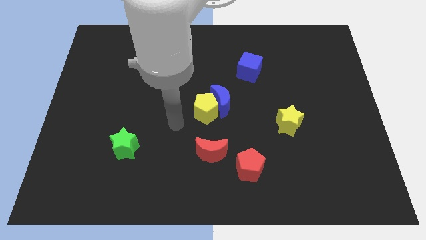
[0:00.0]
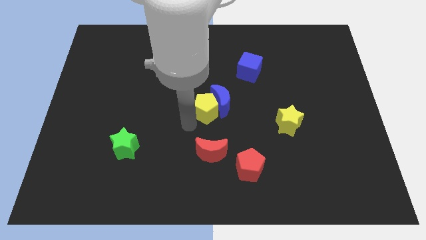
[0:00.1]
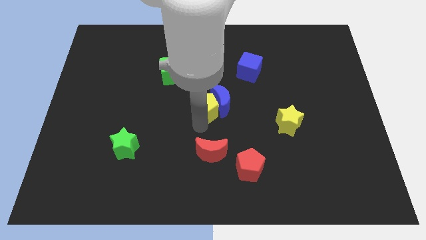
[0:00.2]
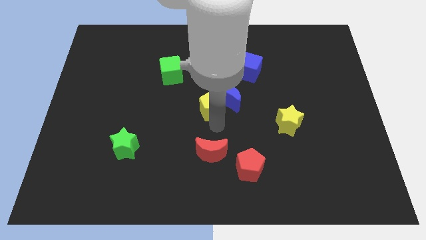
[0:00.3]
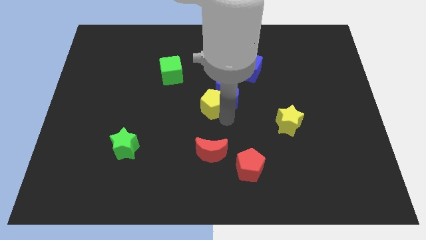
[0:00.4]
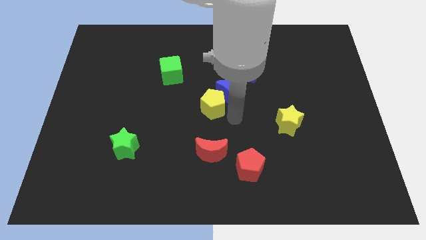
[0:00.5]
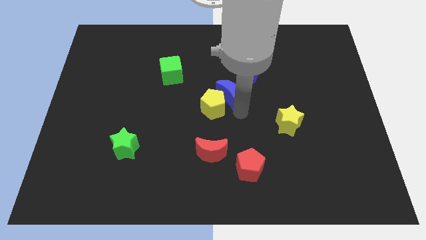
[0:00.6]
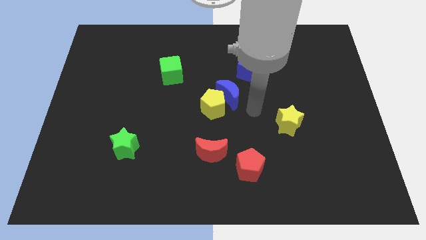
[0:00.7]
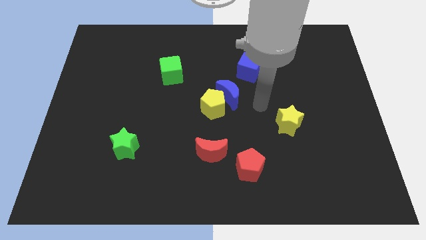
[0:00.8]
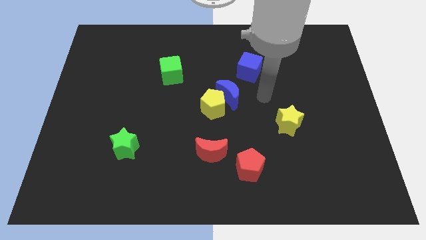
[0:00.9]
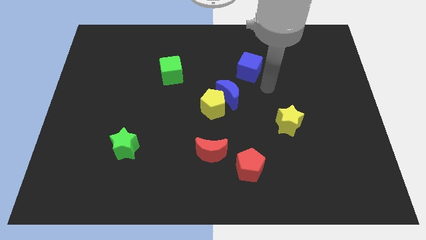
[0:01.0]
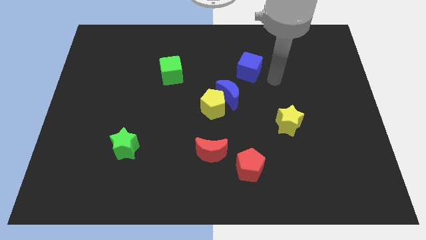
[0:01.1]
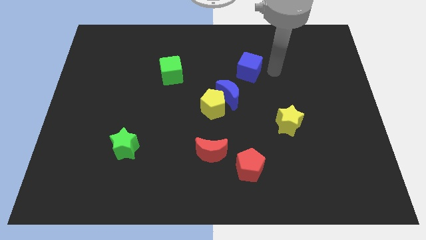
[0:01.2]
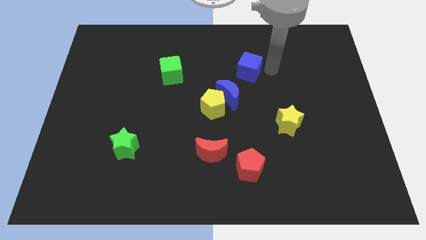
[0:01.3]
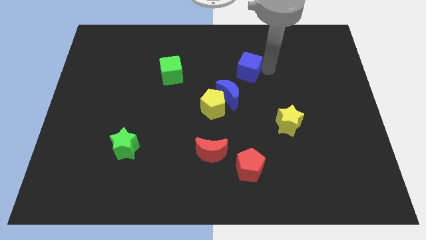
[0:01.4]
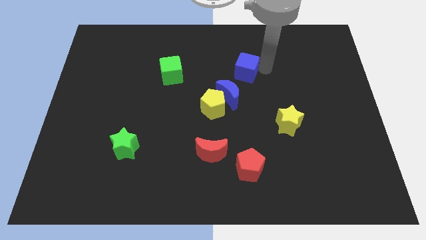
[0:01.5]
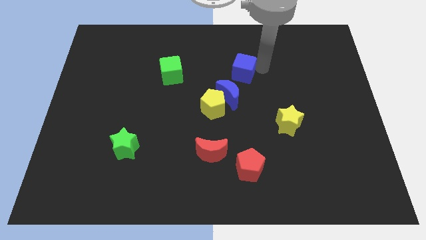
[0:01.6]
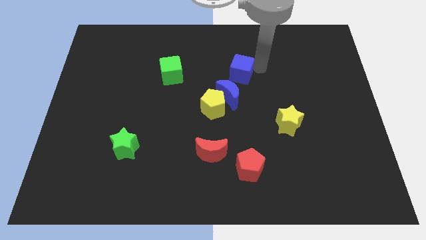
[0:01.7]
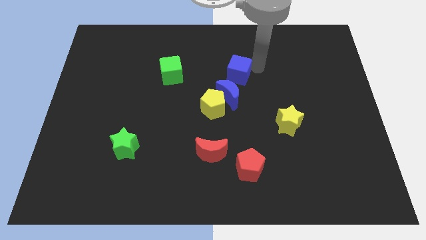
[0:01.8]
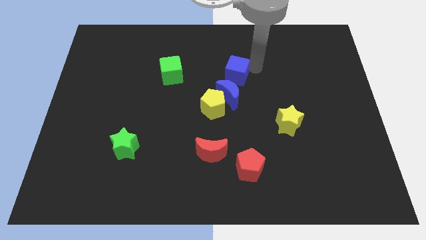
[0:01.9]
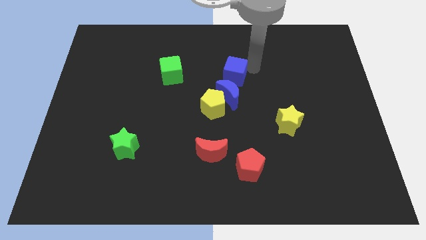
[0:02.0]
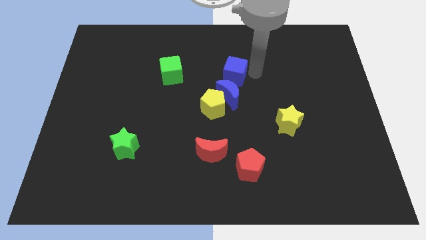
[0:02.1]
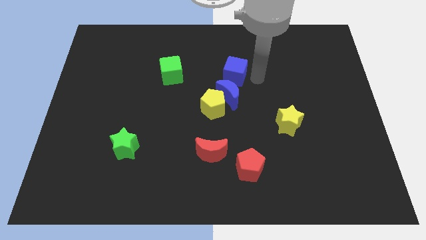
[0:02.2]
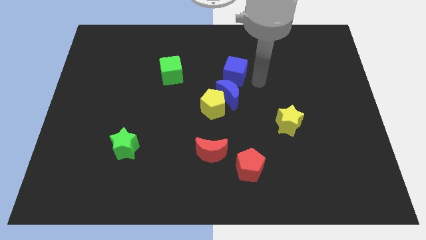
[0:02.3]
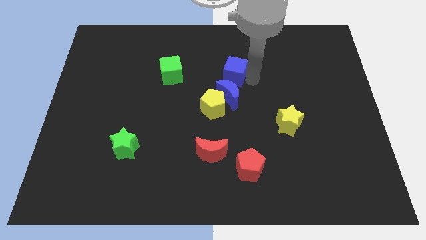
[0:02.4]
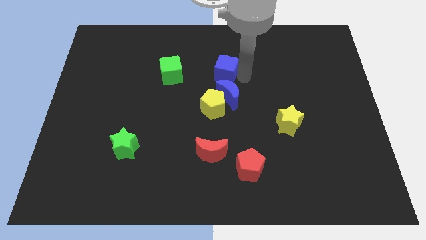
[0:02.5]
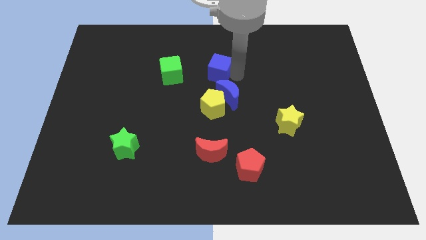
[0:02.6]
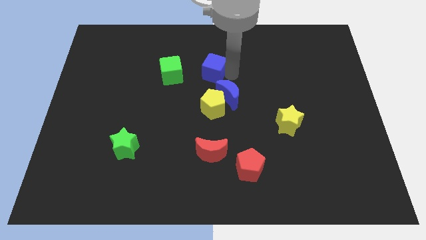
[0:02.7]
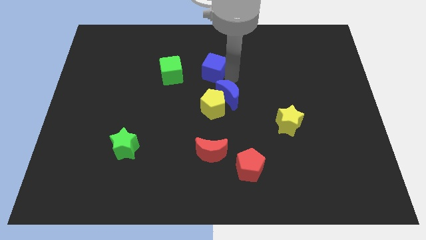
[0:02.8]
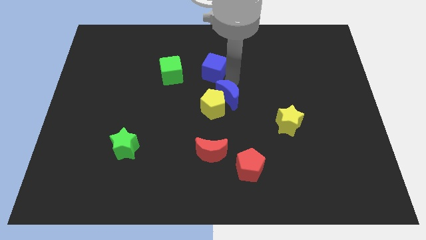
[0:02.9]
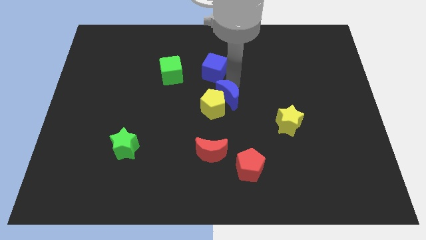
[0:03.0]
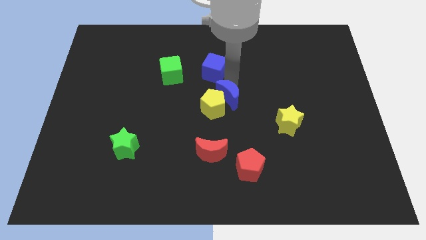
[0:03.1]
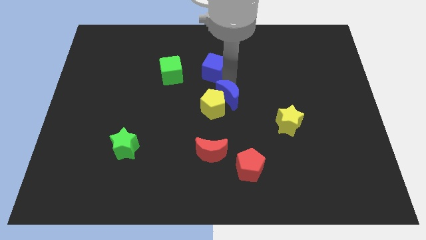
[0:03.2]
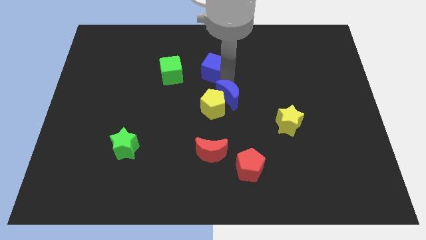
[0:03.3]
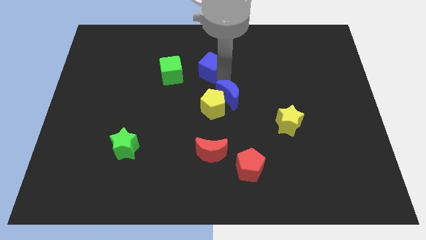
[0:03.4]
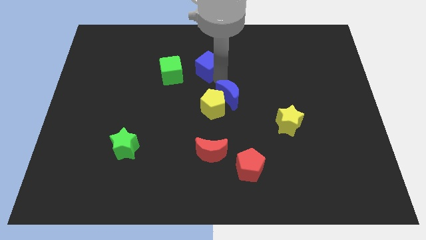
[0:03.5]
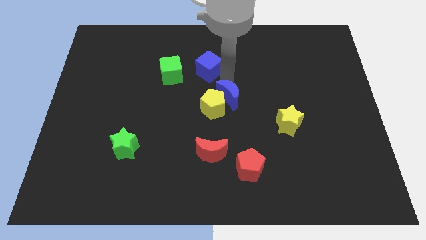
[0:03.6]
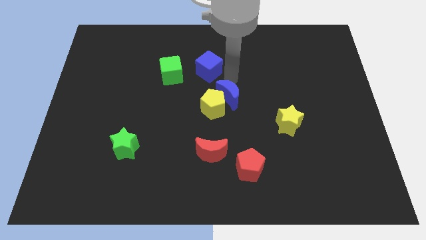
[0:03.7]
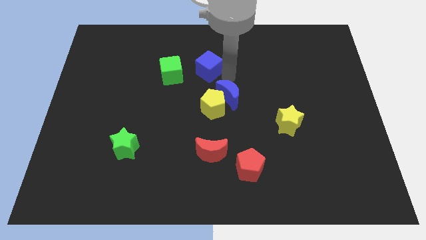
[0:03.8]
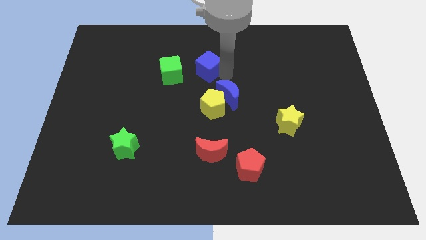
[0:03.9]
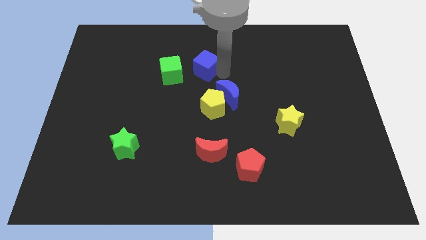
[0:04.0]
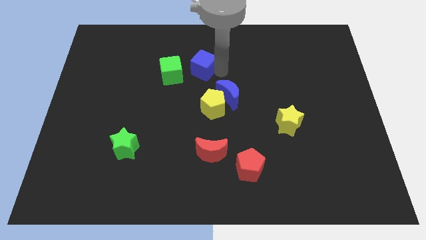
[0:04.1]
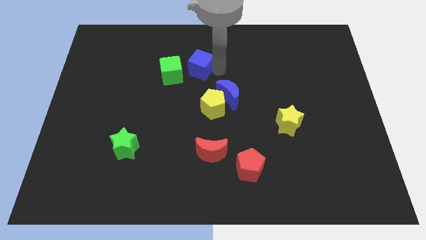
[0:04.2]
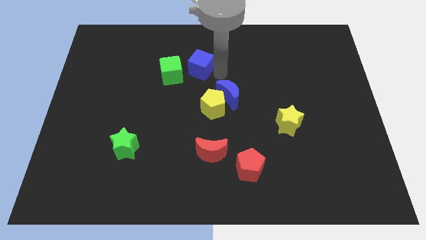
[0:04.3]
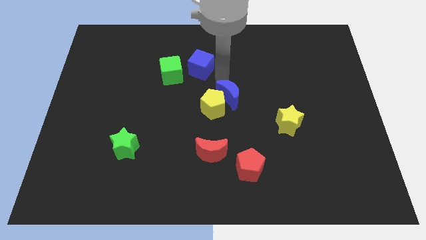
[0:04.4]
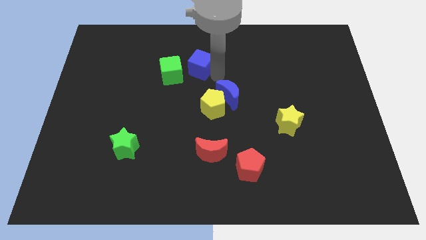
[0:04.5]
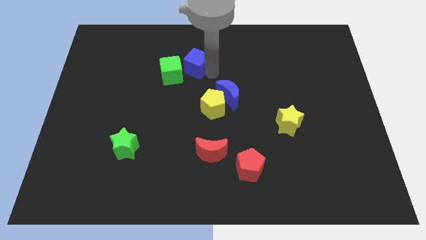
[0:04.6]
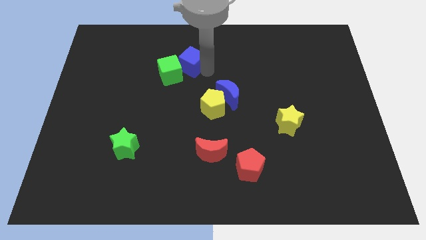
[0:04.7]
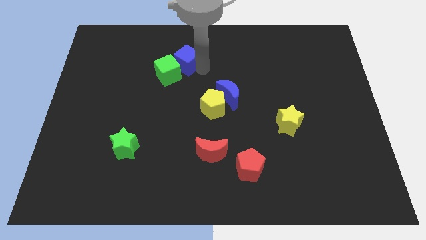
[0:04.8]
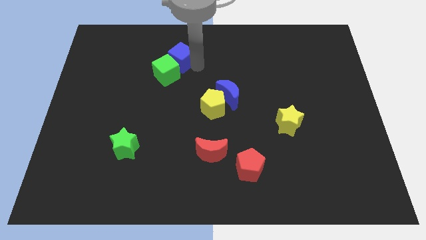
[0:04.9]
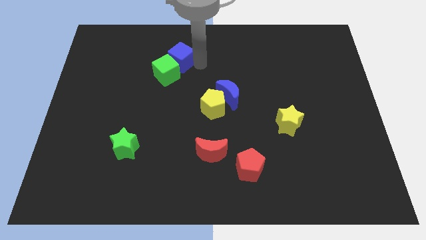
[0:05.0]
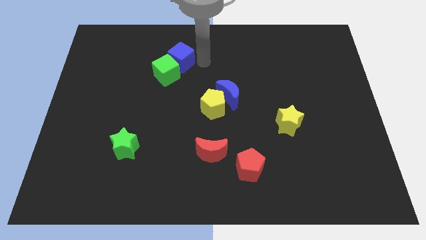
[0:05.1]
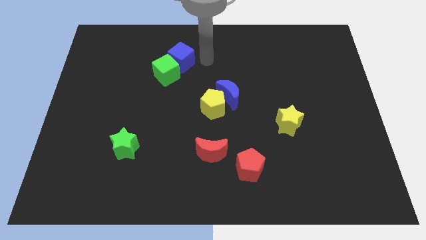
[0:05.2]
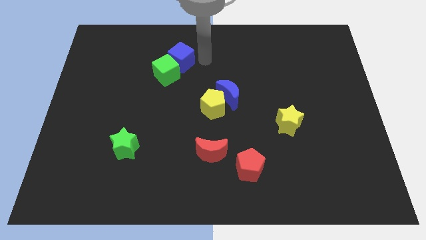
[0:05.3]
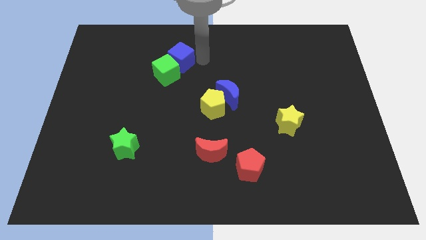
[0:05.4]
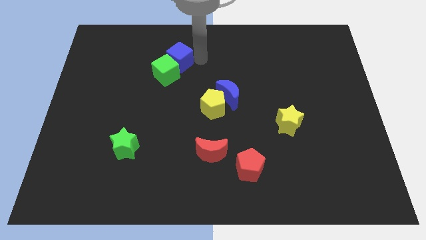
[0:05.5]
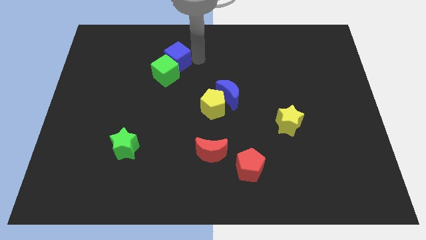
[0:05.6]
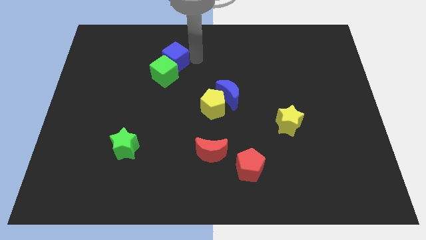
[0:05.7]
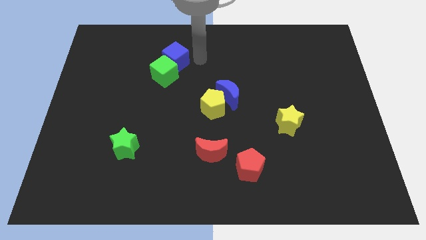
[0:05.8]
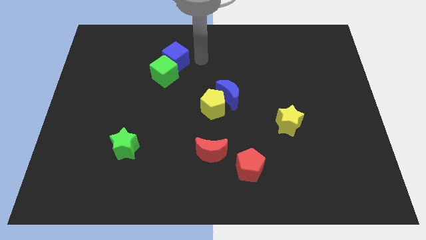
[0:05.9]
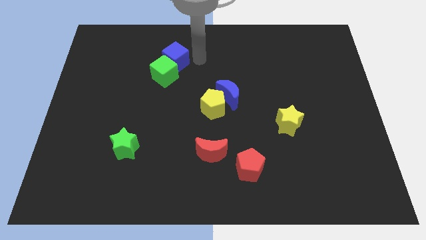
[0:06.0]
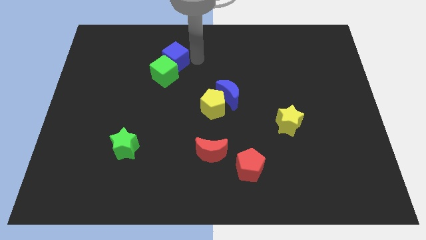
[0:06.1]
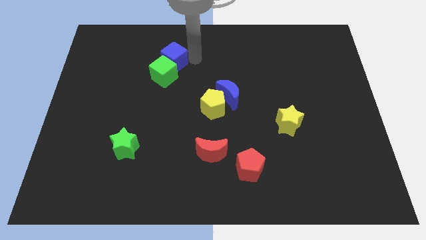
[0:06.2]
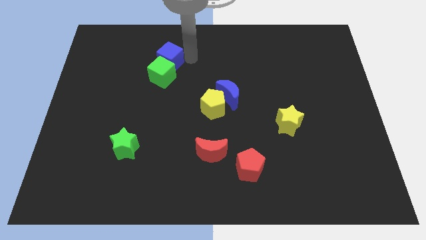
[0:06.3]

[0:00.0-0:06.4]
push the blue cube to the left

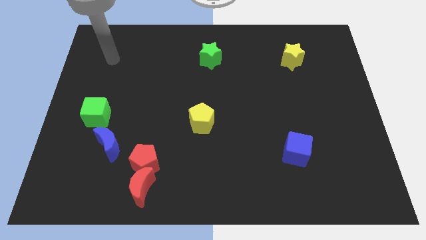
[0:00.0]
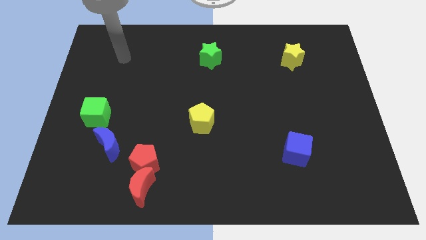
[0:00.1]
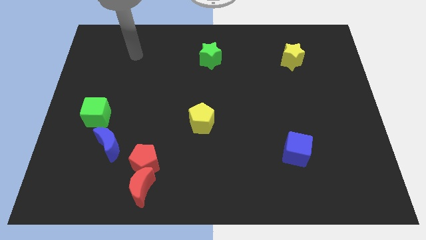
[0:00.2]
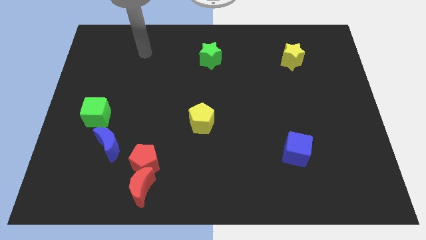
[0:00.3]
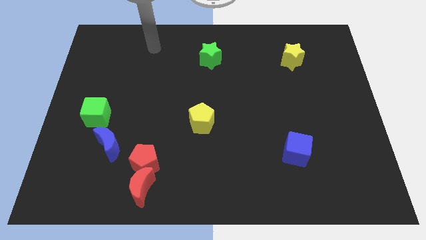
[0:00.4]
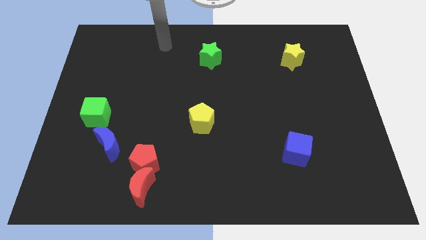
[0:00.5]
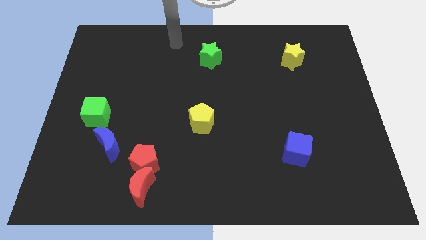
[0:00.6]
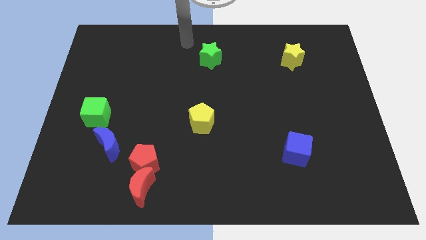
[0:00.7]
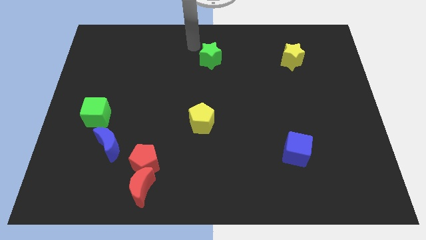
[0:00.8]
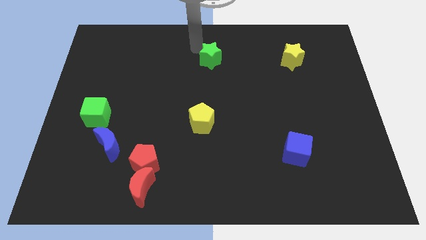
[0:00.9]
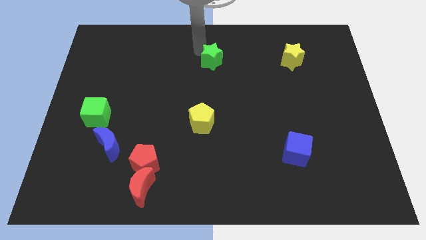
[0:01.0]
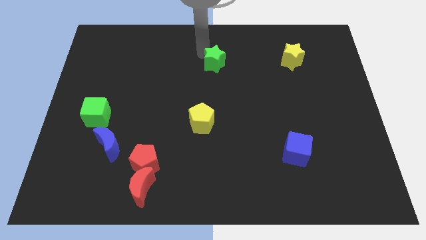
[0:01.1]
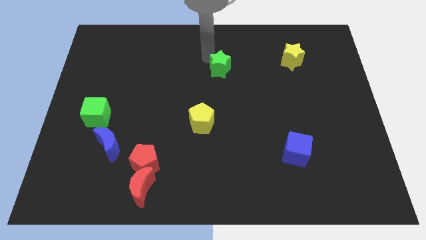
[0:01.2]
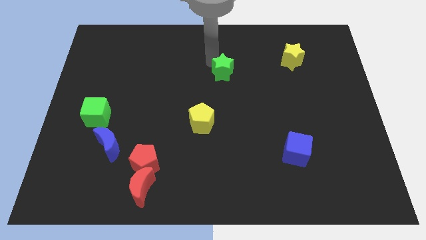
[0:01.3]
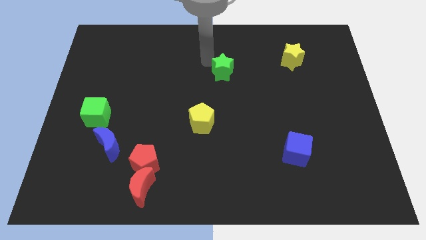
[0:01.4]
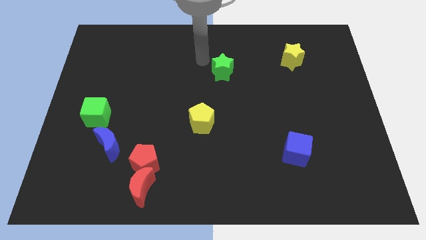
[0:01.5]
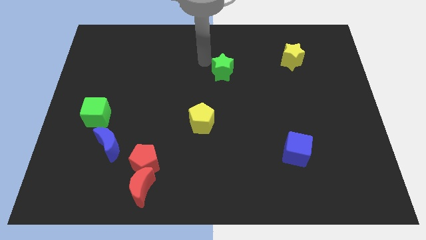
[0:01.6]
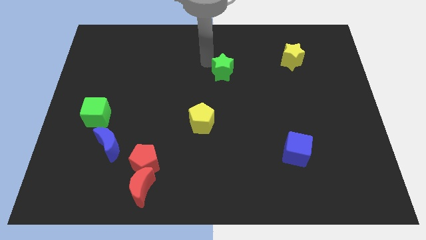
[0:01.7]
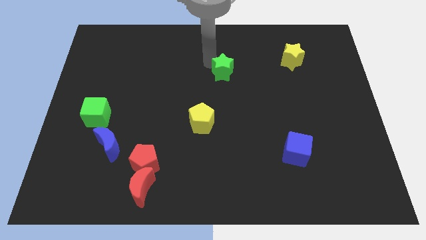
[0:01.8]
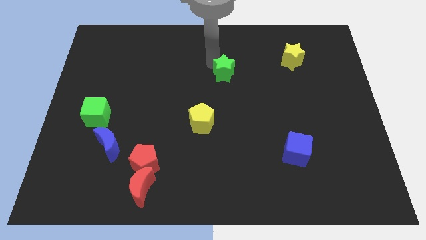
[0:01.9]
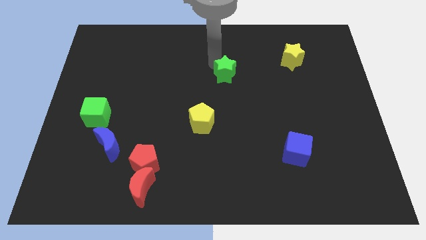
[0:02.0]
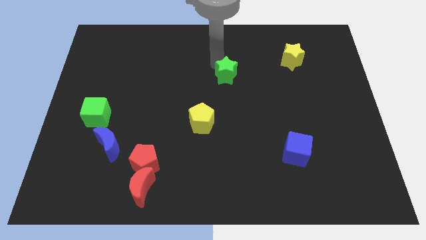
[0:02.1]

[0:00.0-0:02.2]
slightly slide the green star downwards and then to the right
